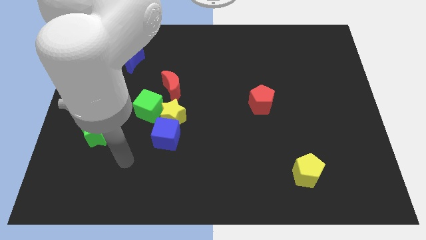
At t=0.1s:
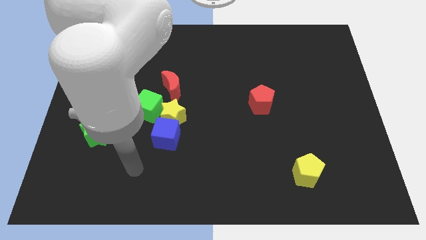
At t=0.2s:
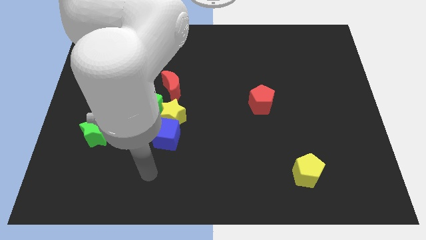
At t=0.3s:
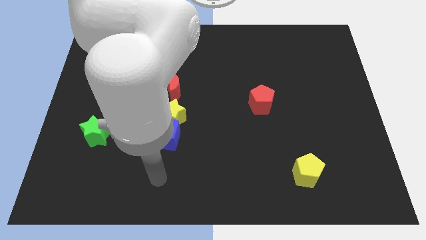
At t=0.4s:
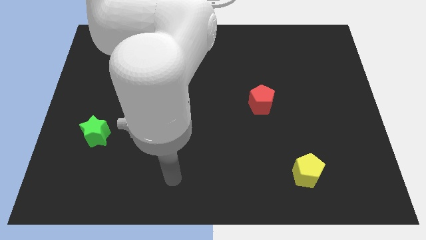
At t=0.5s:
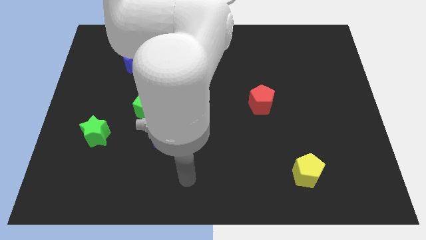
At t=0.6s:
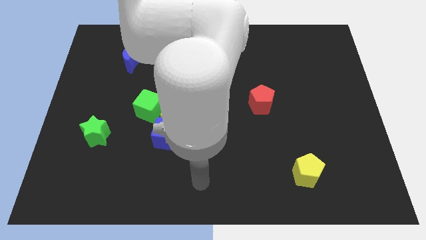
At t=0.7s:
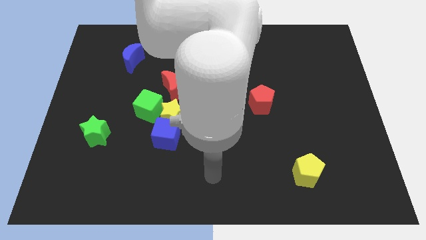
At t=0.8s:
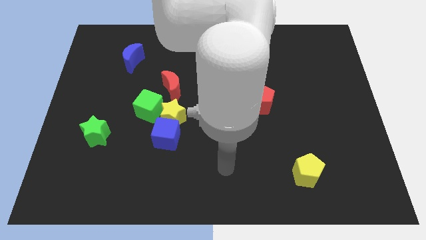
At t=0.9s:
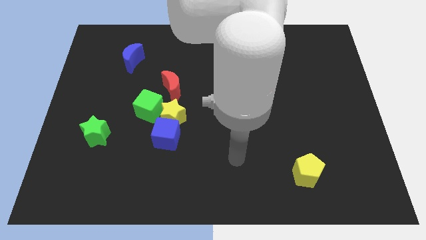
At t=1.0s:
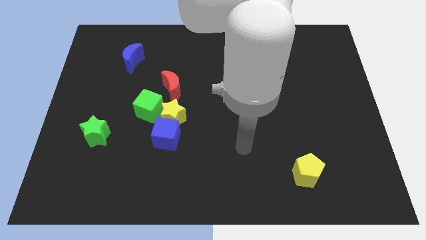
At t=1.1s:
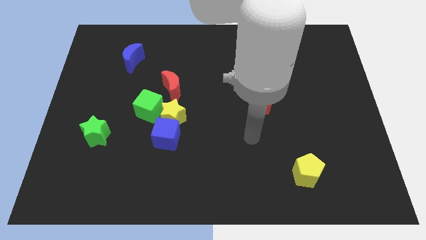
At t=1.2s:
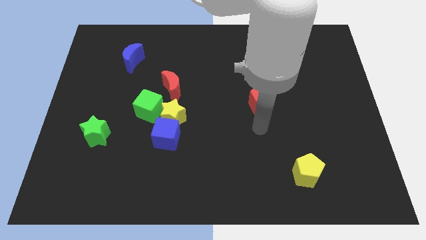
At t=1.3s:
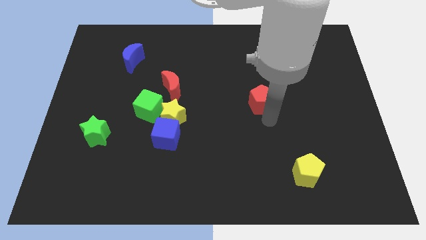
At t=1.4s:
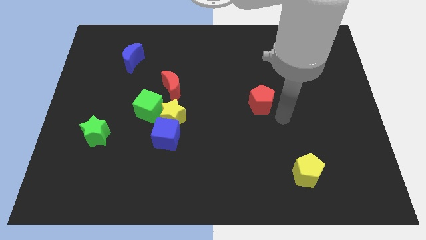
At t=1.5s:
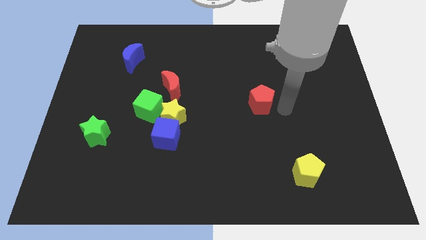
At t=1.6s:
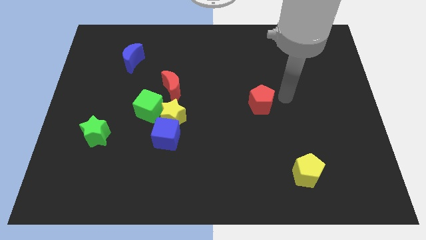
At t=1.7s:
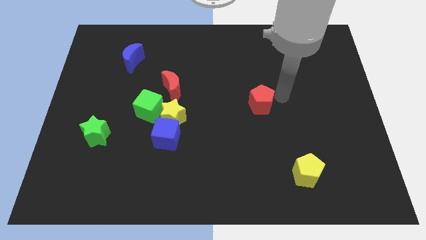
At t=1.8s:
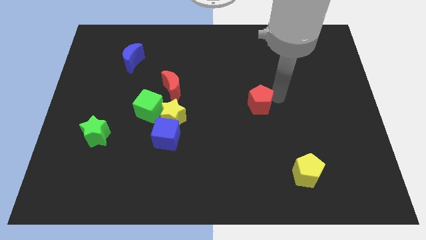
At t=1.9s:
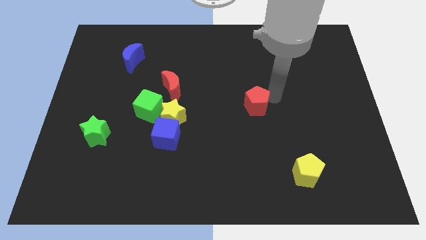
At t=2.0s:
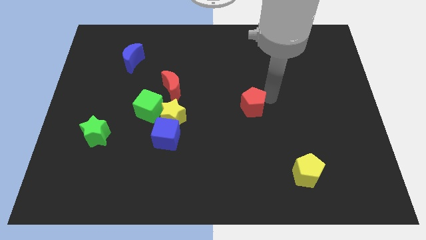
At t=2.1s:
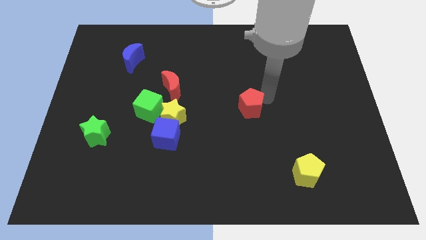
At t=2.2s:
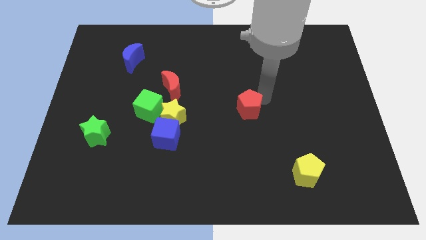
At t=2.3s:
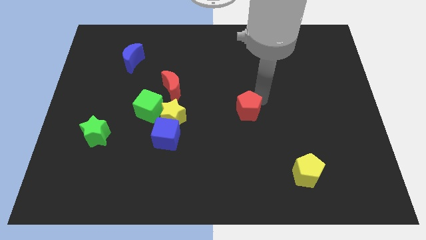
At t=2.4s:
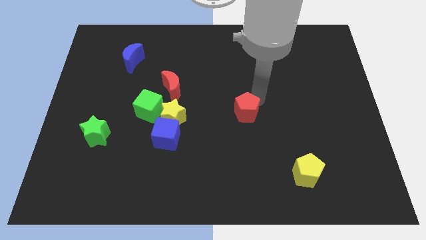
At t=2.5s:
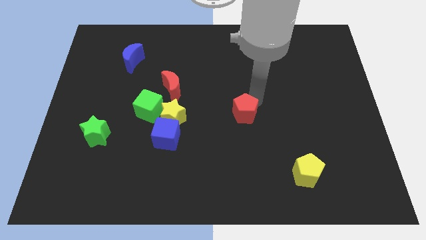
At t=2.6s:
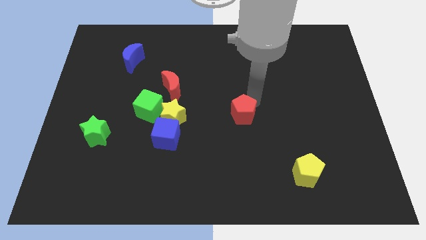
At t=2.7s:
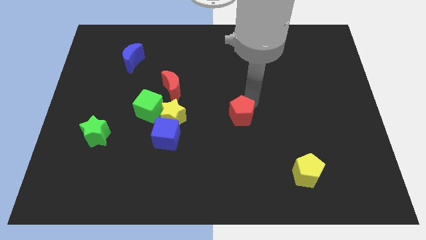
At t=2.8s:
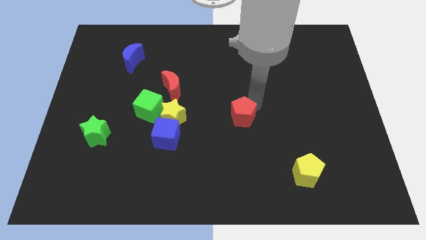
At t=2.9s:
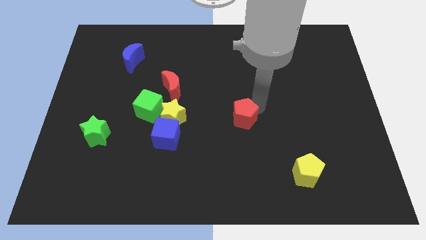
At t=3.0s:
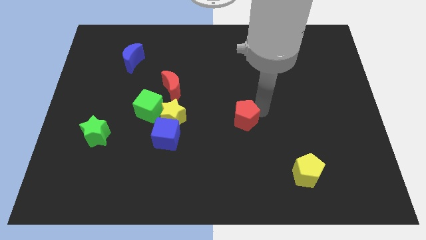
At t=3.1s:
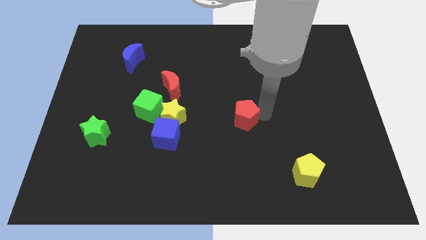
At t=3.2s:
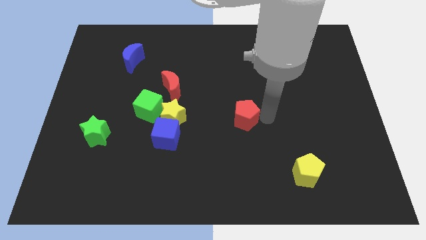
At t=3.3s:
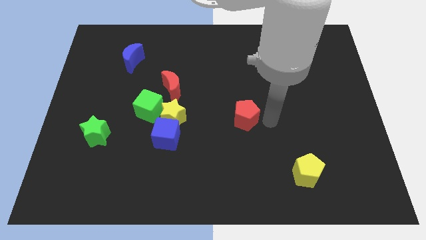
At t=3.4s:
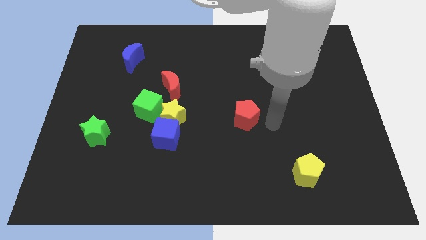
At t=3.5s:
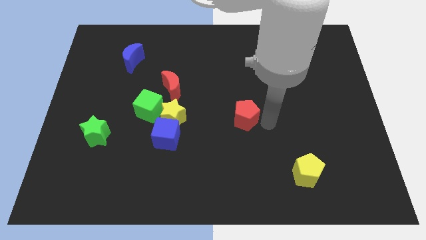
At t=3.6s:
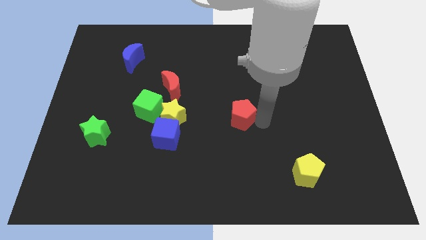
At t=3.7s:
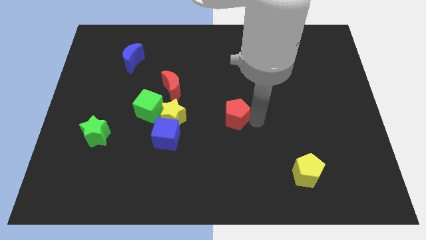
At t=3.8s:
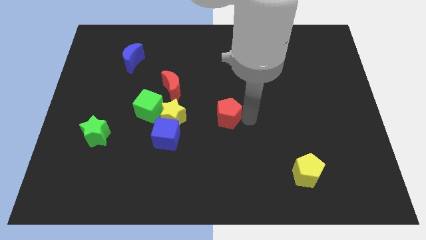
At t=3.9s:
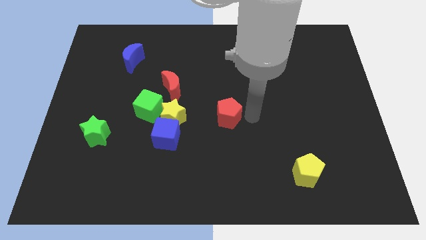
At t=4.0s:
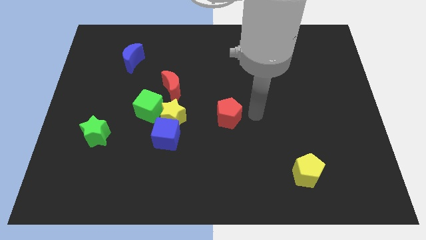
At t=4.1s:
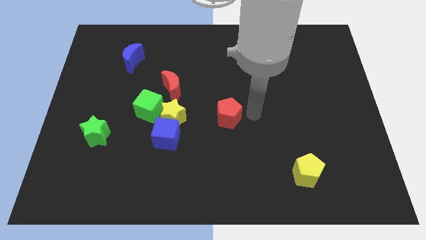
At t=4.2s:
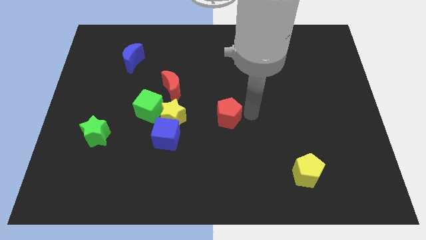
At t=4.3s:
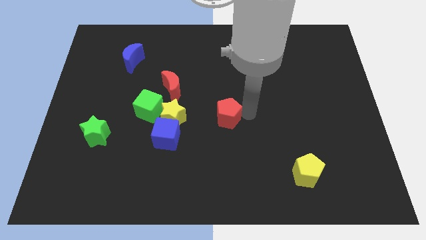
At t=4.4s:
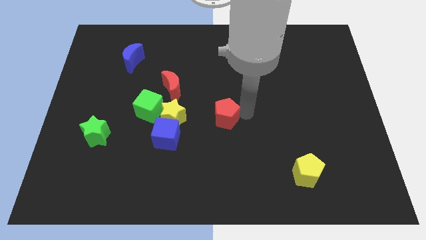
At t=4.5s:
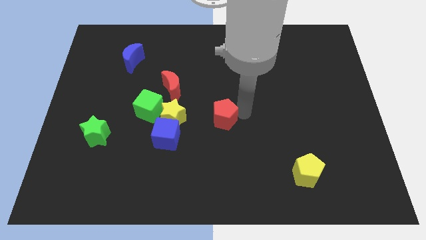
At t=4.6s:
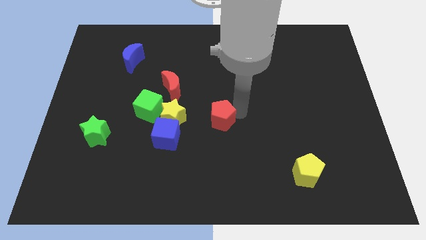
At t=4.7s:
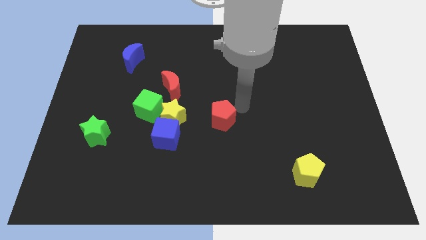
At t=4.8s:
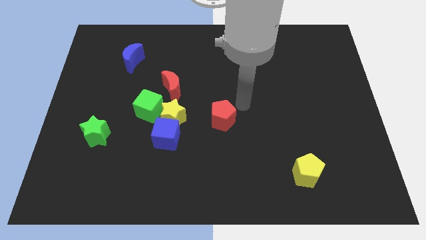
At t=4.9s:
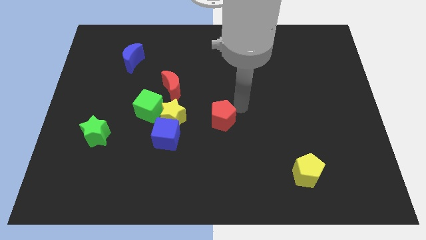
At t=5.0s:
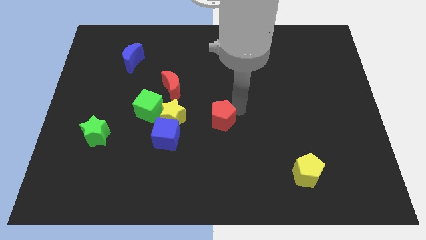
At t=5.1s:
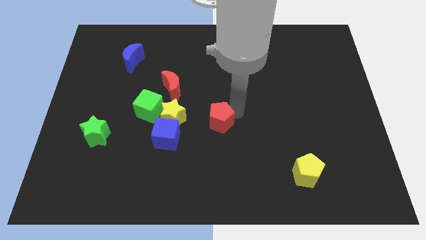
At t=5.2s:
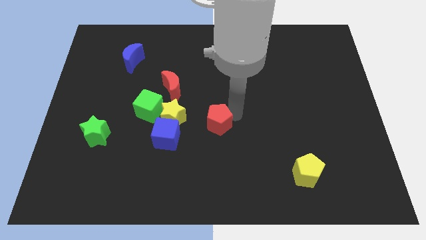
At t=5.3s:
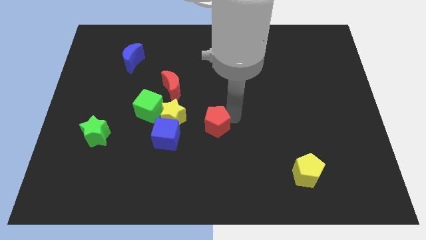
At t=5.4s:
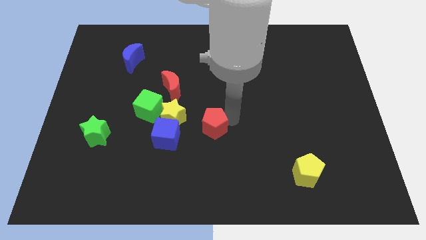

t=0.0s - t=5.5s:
move the red pentagon to the bottom right of the yellow star

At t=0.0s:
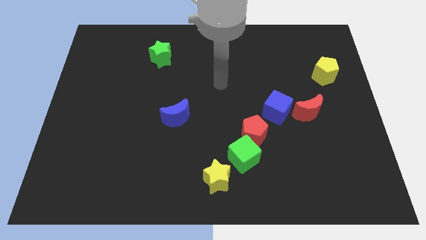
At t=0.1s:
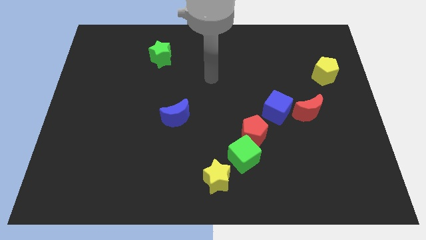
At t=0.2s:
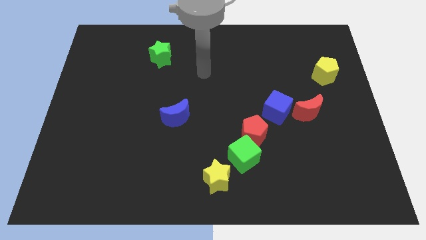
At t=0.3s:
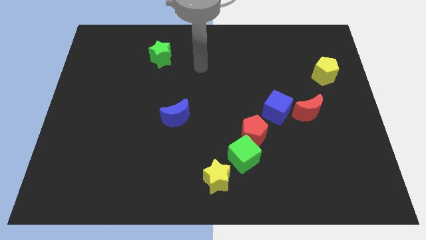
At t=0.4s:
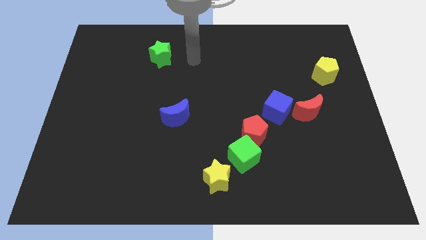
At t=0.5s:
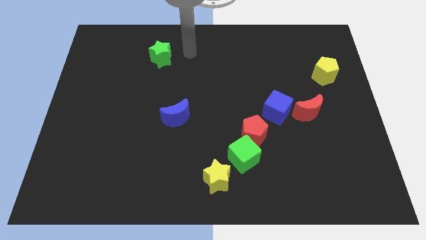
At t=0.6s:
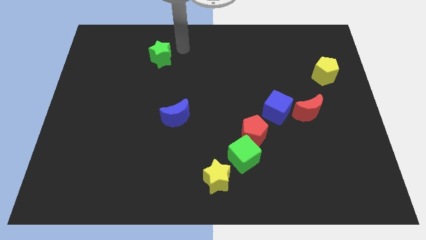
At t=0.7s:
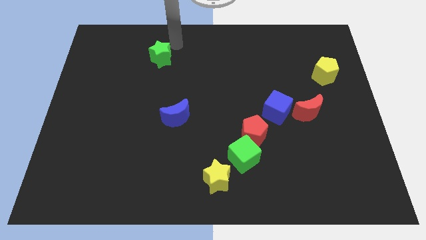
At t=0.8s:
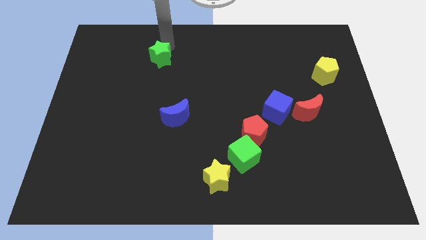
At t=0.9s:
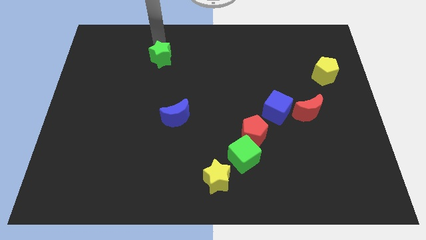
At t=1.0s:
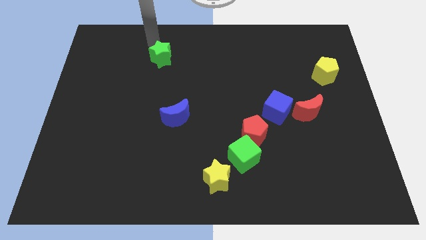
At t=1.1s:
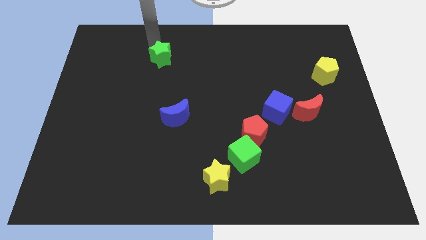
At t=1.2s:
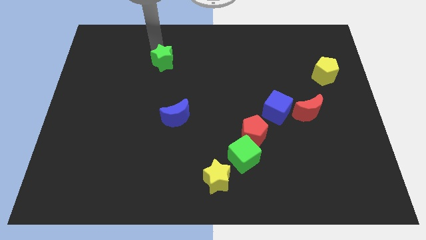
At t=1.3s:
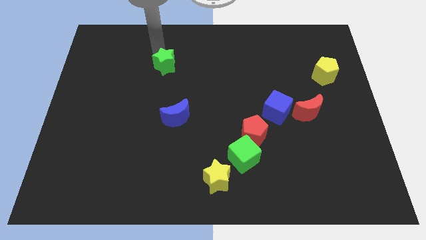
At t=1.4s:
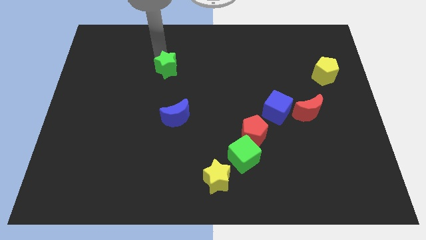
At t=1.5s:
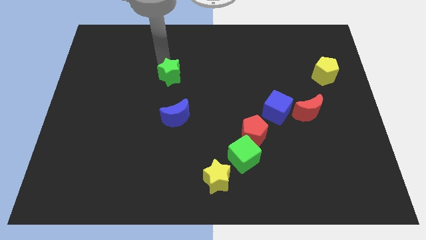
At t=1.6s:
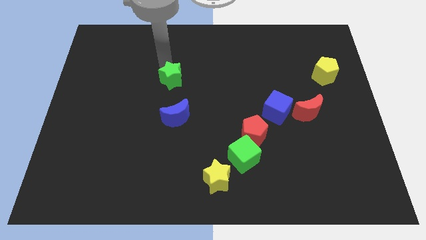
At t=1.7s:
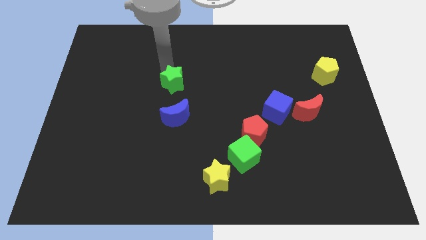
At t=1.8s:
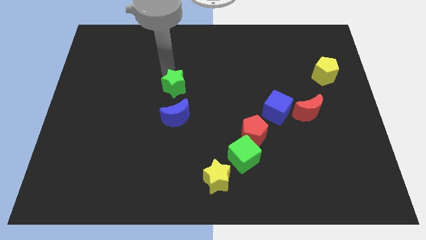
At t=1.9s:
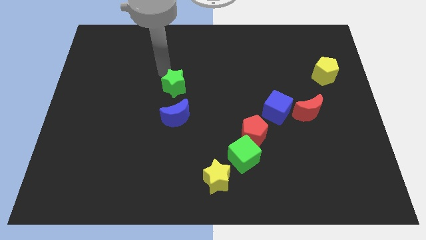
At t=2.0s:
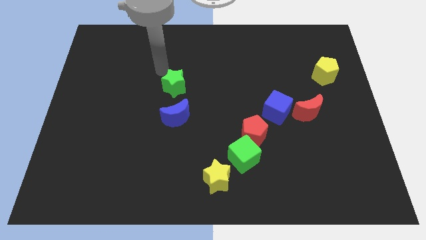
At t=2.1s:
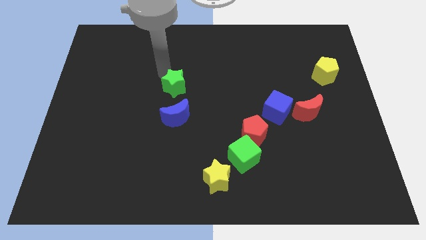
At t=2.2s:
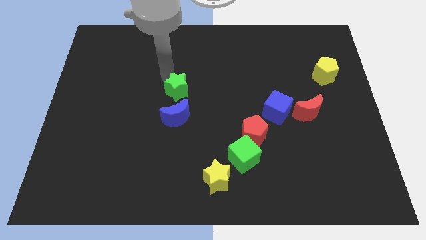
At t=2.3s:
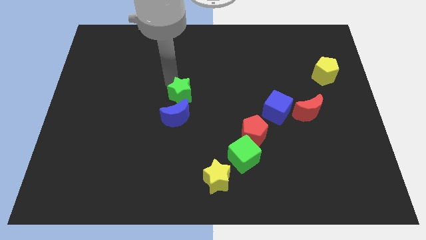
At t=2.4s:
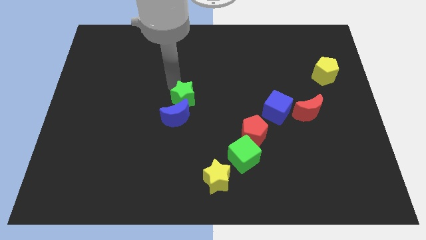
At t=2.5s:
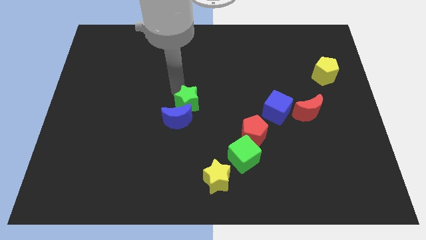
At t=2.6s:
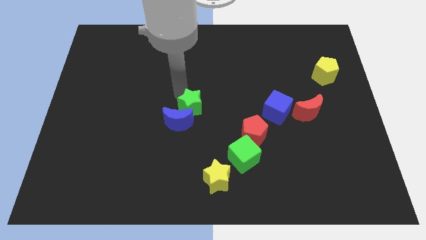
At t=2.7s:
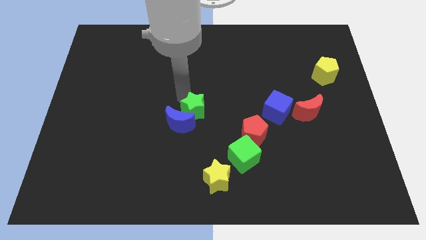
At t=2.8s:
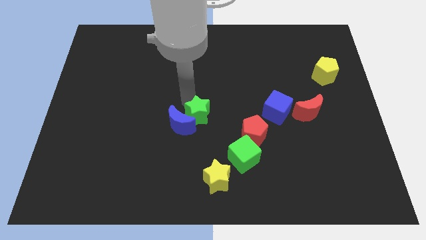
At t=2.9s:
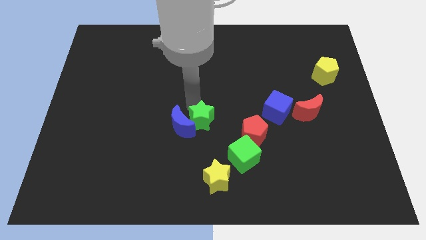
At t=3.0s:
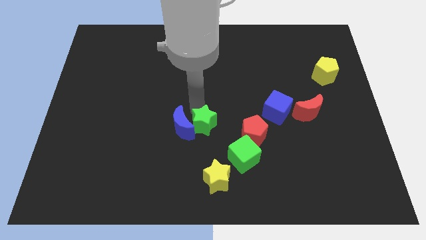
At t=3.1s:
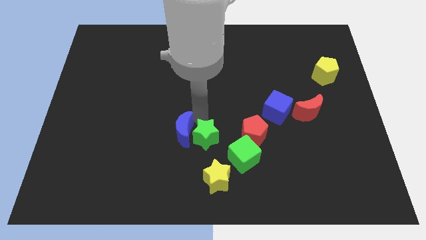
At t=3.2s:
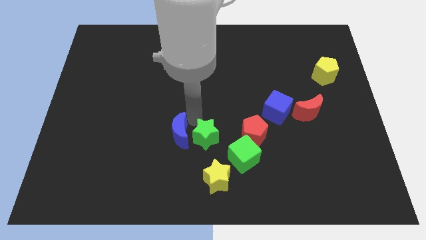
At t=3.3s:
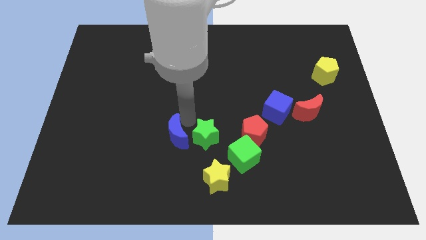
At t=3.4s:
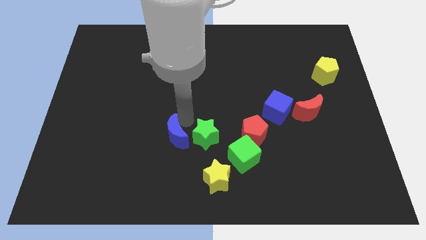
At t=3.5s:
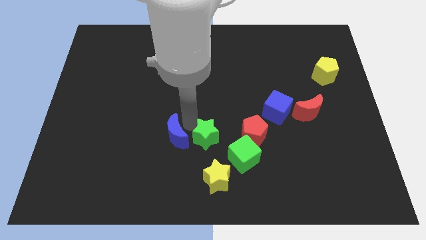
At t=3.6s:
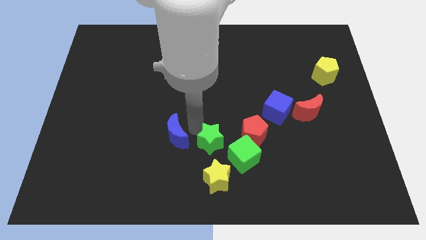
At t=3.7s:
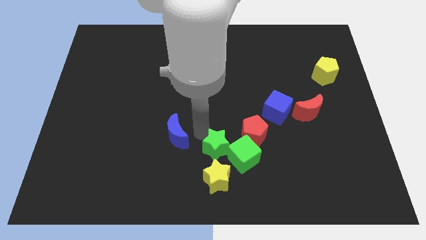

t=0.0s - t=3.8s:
slide the green star diagonally down and to the left of the red pentagon
